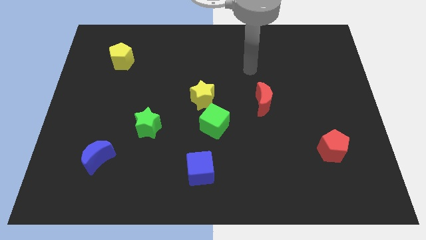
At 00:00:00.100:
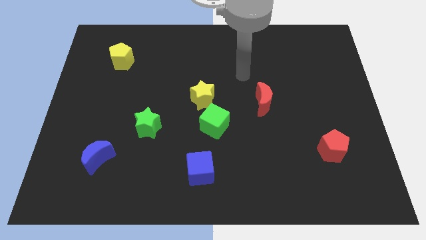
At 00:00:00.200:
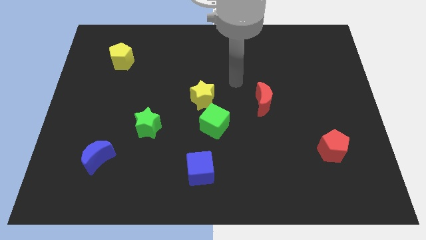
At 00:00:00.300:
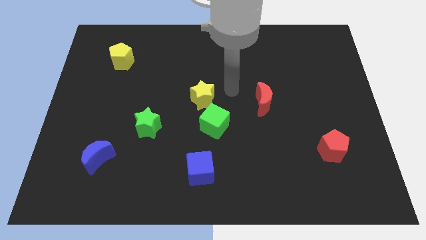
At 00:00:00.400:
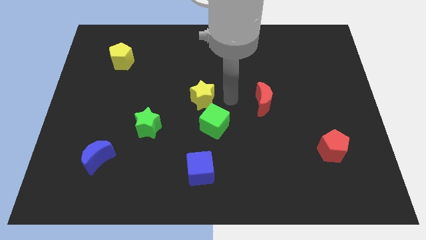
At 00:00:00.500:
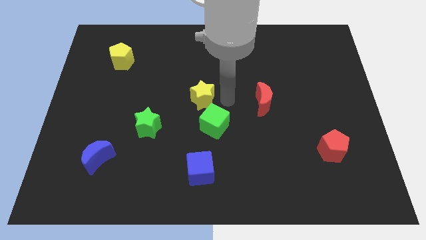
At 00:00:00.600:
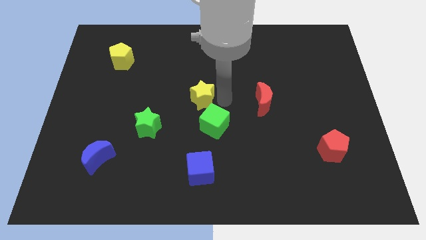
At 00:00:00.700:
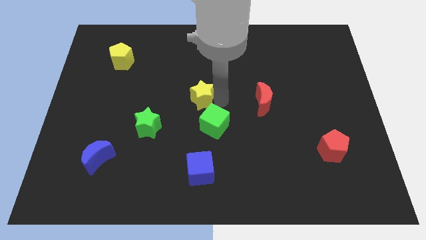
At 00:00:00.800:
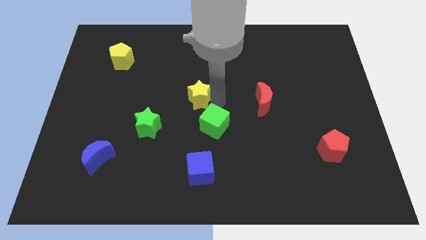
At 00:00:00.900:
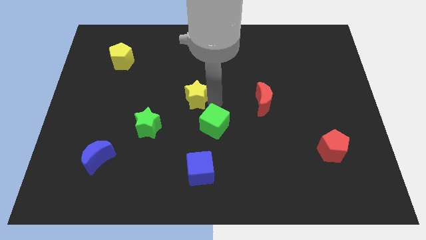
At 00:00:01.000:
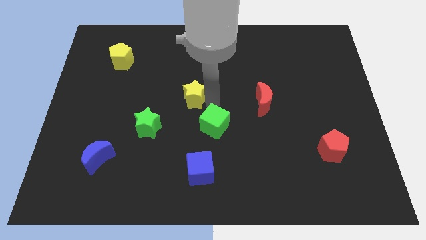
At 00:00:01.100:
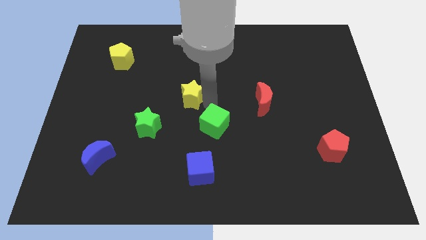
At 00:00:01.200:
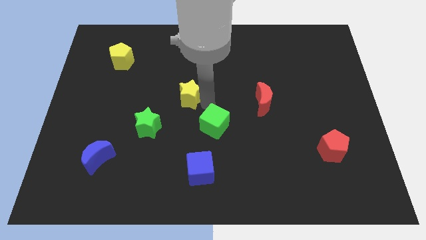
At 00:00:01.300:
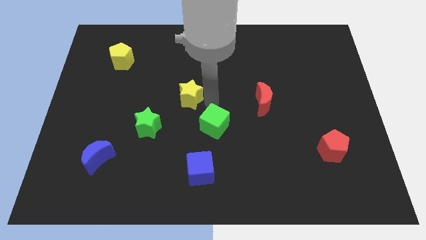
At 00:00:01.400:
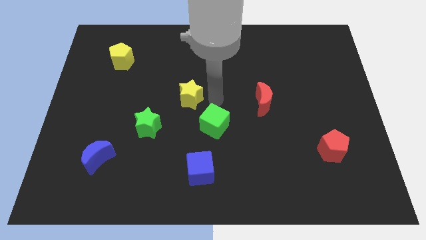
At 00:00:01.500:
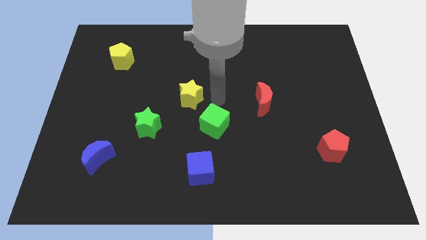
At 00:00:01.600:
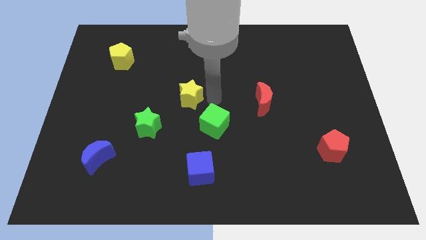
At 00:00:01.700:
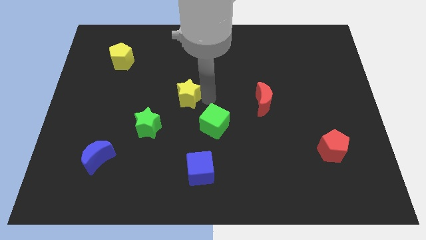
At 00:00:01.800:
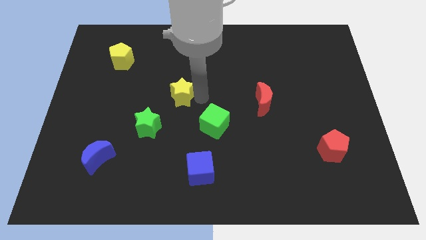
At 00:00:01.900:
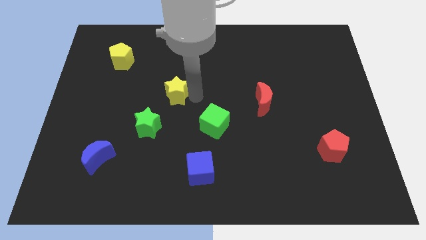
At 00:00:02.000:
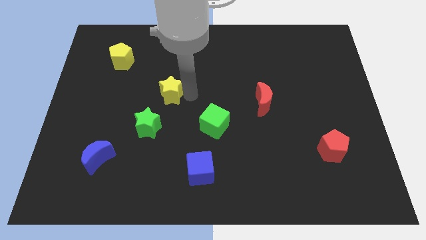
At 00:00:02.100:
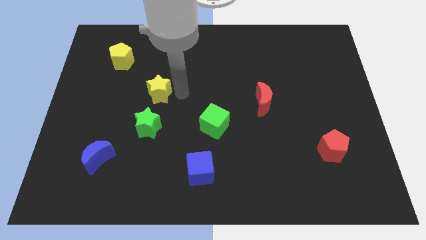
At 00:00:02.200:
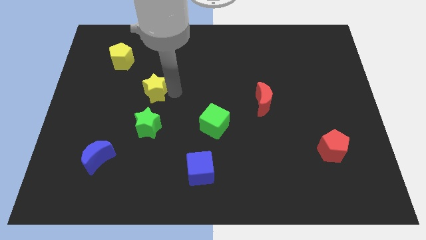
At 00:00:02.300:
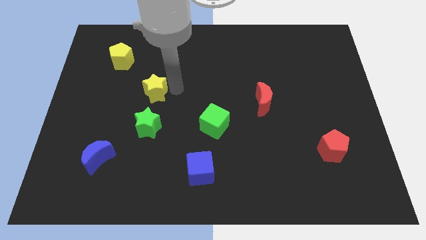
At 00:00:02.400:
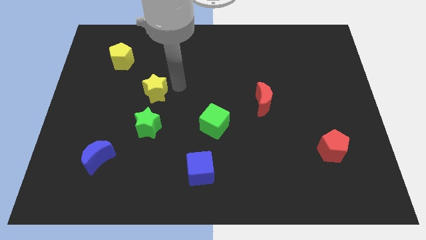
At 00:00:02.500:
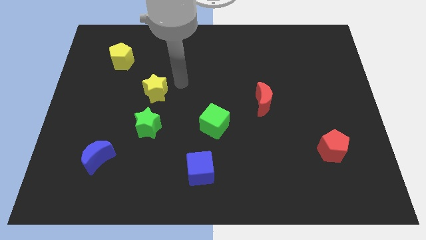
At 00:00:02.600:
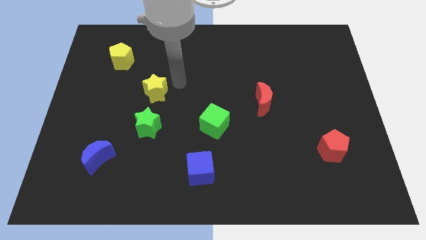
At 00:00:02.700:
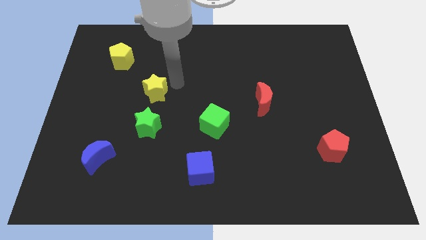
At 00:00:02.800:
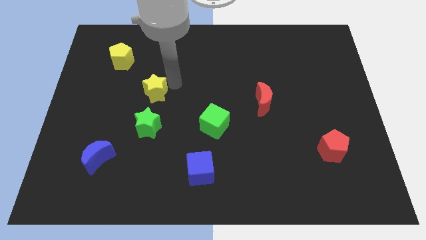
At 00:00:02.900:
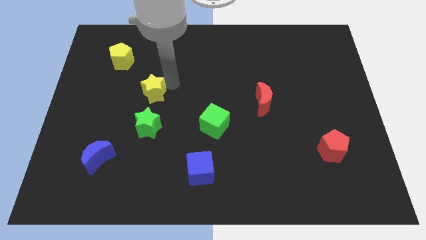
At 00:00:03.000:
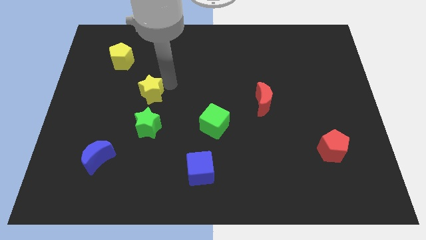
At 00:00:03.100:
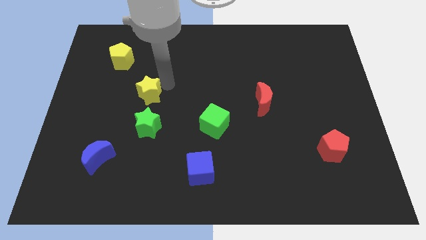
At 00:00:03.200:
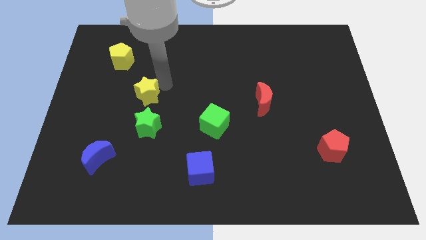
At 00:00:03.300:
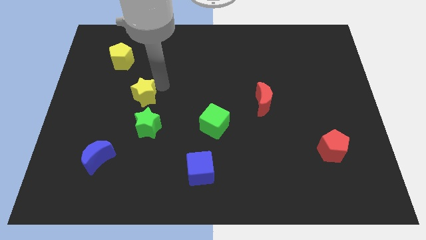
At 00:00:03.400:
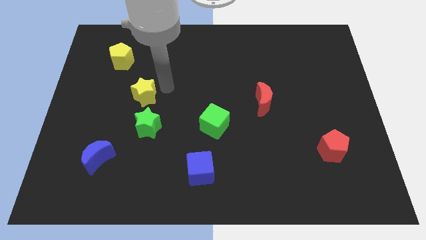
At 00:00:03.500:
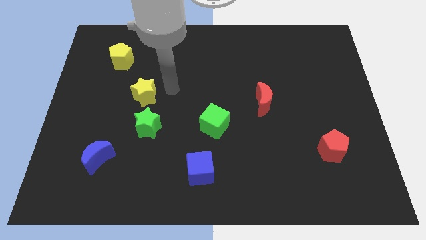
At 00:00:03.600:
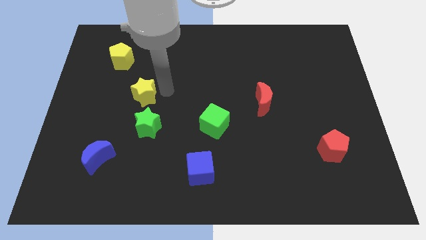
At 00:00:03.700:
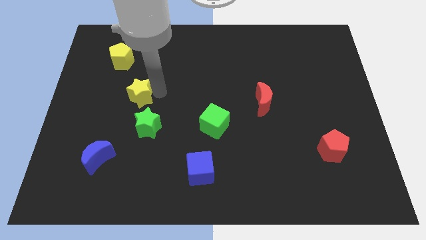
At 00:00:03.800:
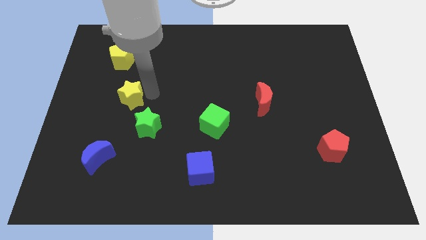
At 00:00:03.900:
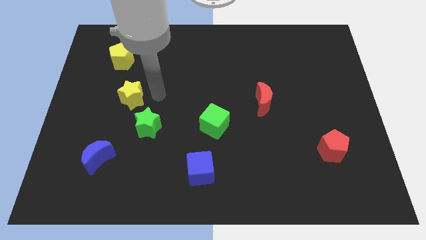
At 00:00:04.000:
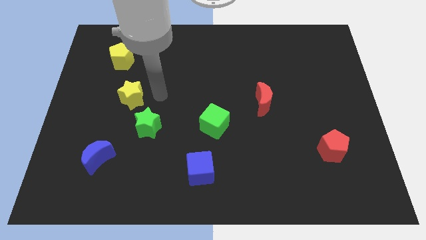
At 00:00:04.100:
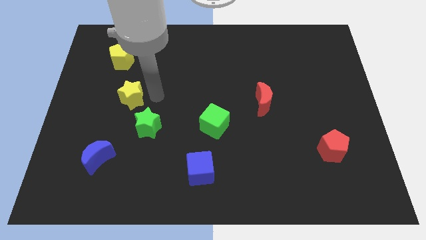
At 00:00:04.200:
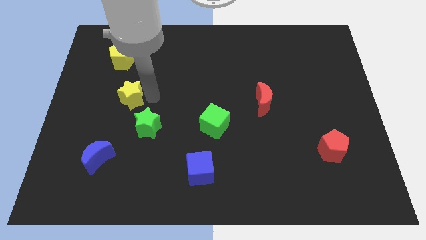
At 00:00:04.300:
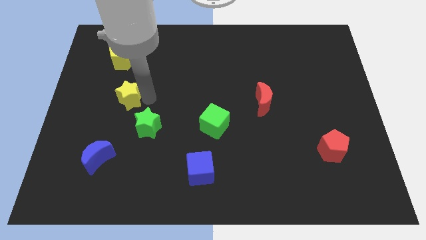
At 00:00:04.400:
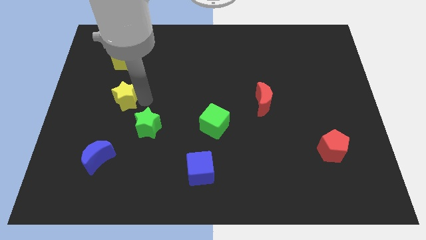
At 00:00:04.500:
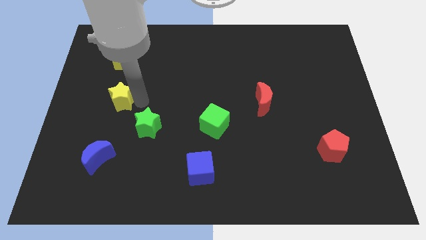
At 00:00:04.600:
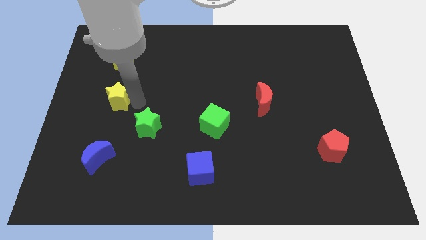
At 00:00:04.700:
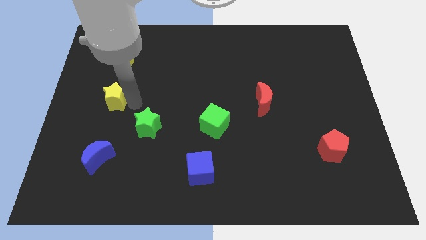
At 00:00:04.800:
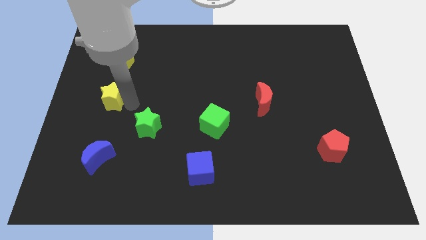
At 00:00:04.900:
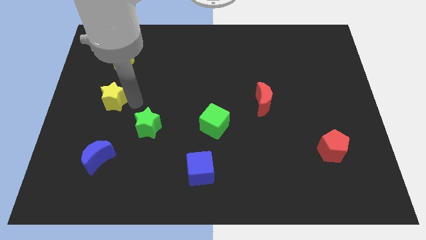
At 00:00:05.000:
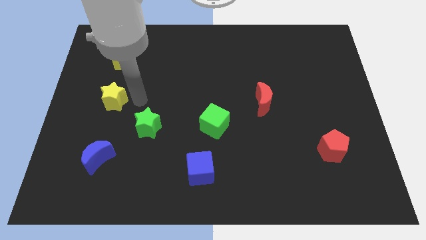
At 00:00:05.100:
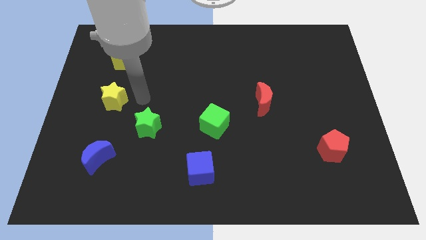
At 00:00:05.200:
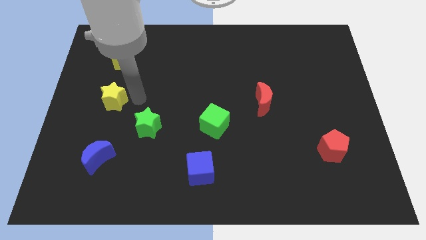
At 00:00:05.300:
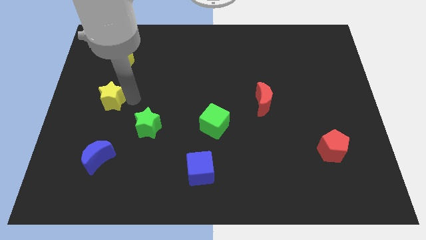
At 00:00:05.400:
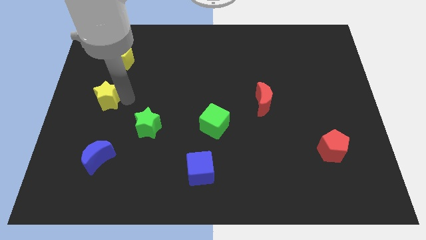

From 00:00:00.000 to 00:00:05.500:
slide the yellow star to the center left

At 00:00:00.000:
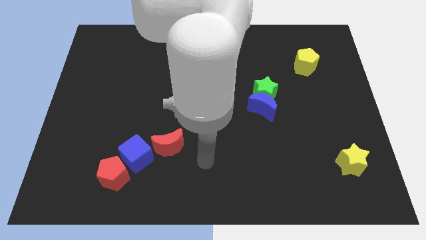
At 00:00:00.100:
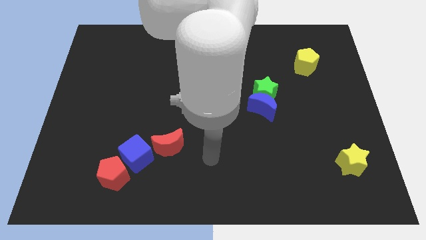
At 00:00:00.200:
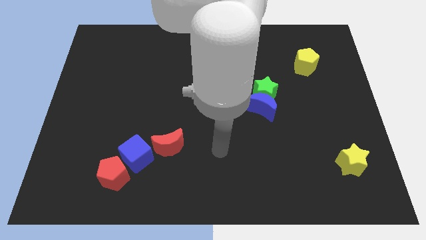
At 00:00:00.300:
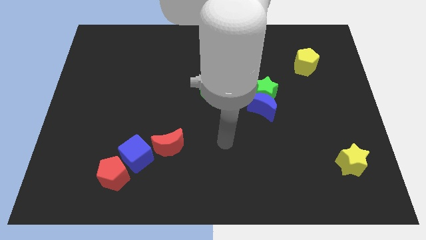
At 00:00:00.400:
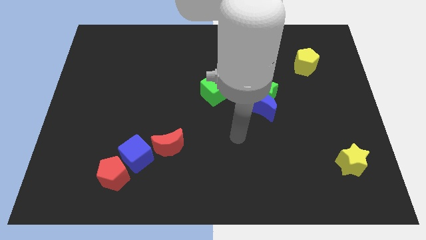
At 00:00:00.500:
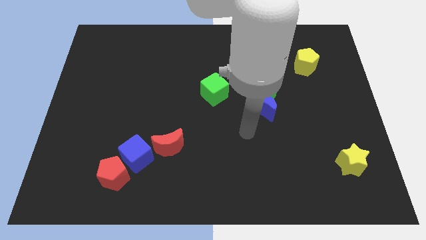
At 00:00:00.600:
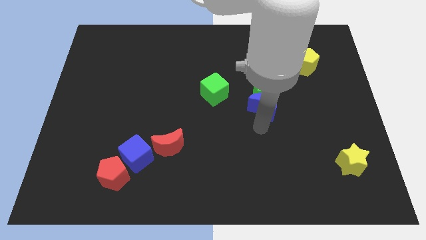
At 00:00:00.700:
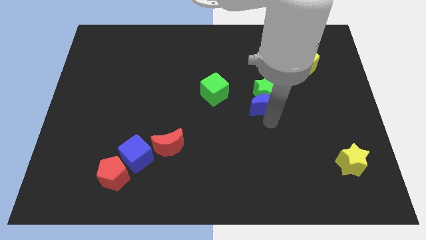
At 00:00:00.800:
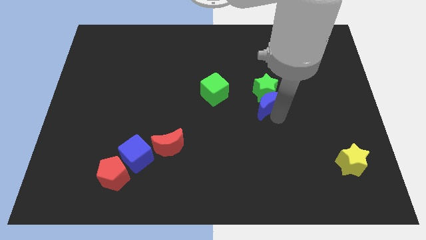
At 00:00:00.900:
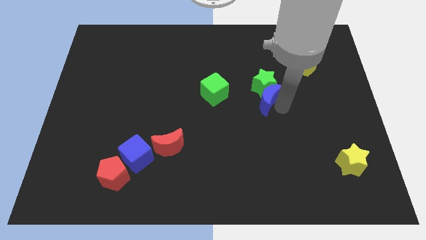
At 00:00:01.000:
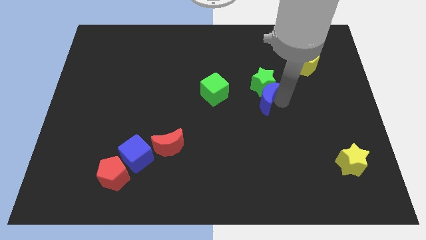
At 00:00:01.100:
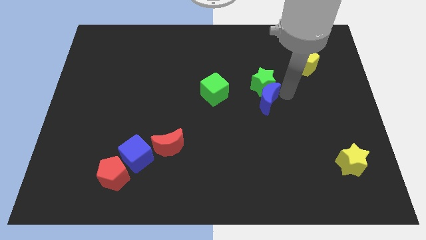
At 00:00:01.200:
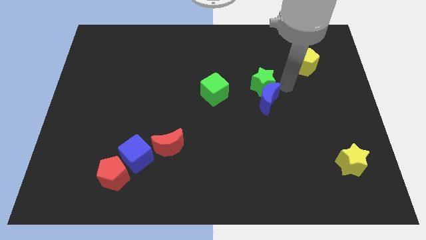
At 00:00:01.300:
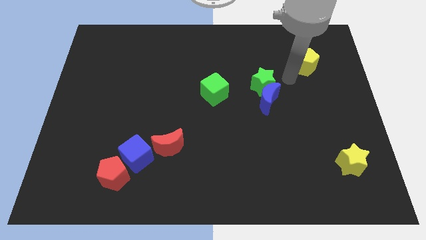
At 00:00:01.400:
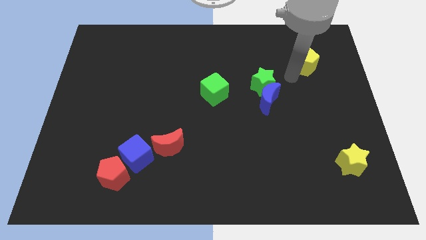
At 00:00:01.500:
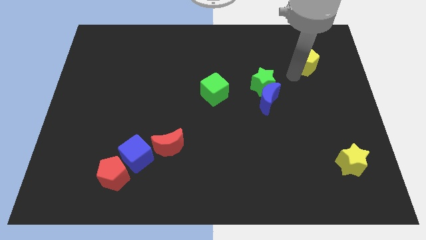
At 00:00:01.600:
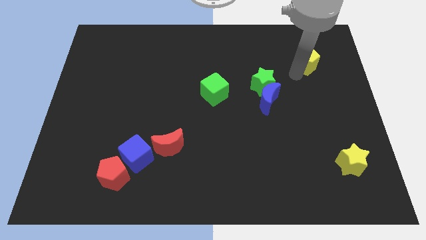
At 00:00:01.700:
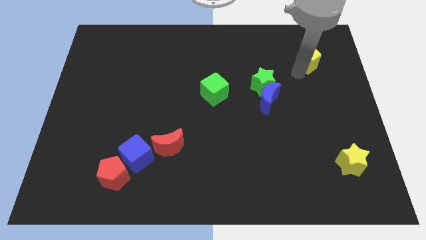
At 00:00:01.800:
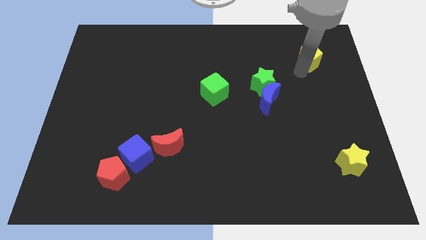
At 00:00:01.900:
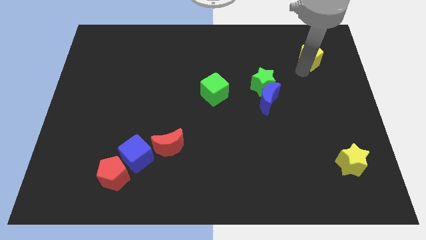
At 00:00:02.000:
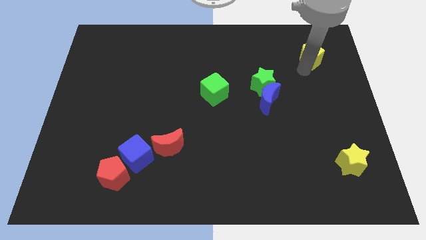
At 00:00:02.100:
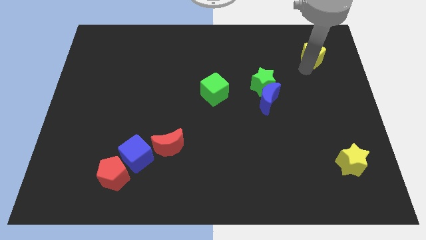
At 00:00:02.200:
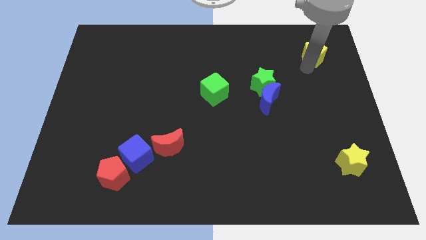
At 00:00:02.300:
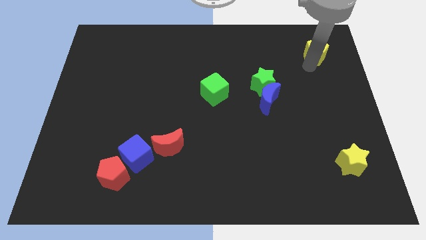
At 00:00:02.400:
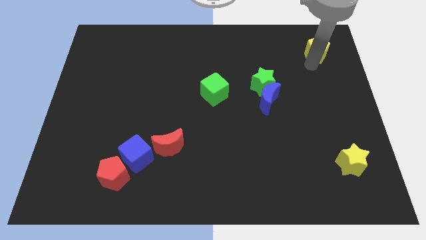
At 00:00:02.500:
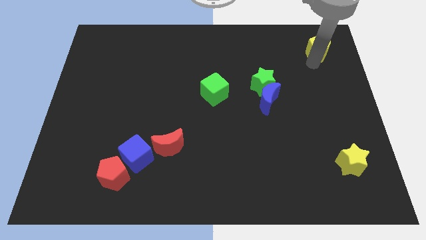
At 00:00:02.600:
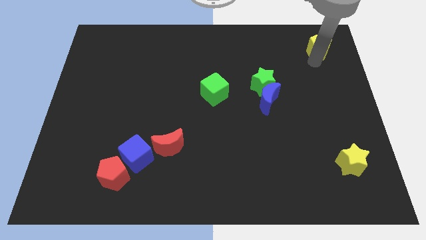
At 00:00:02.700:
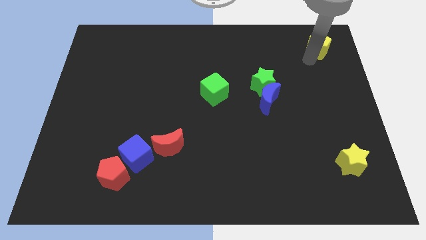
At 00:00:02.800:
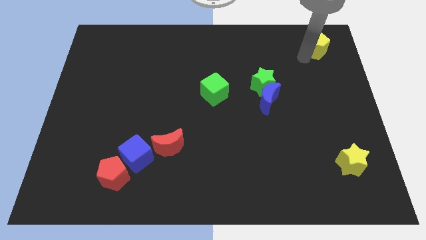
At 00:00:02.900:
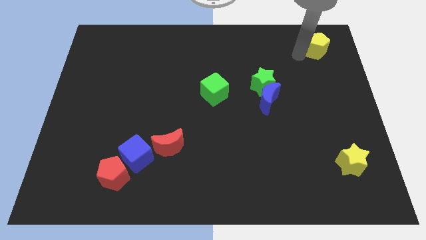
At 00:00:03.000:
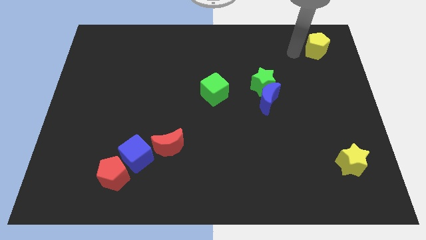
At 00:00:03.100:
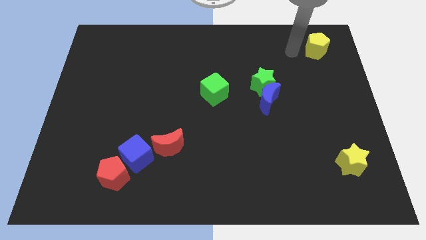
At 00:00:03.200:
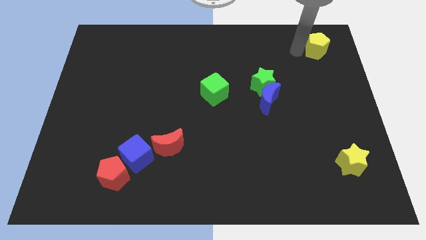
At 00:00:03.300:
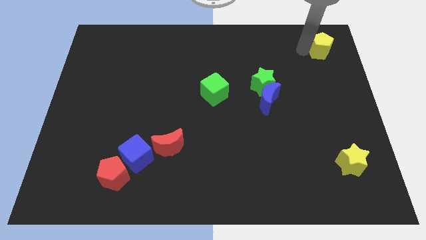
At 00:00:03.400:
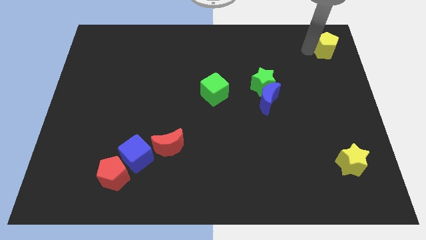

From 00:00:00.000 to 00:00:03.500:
move the yellow pentagon to the upper right corner
